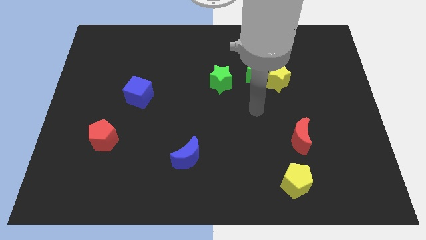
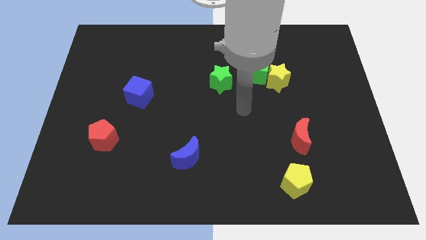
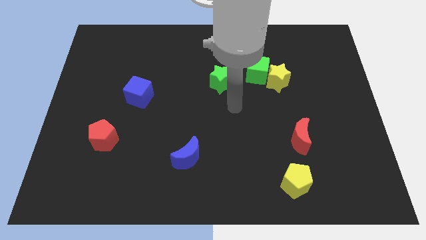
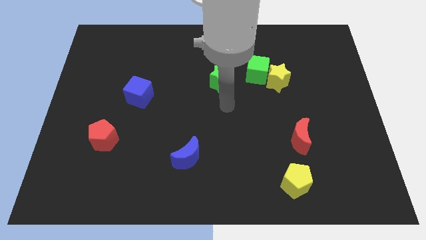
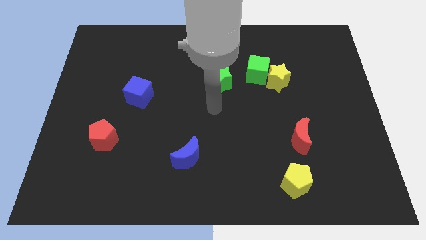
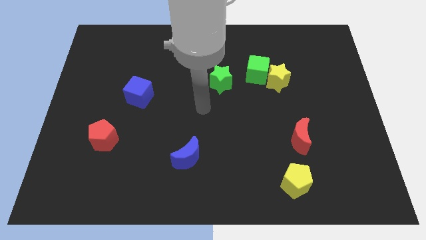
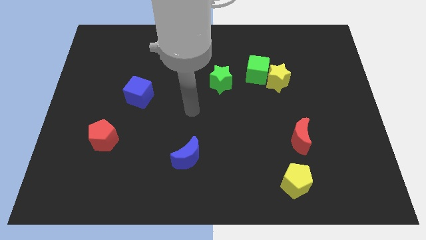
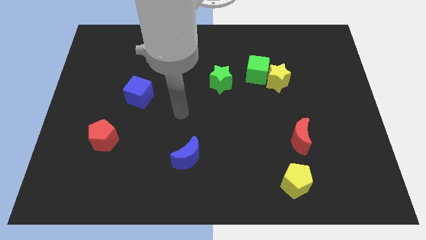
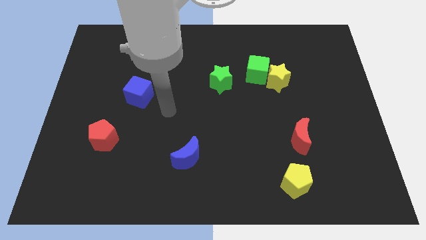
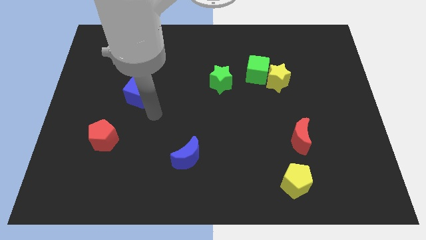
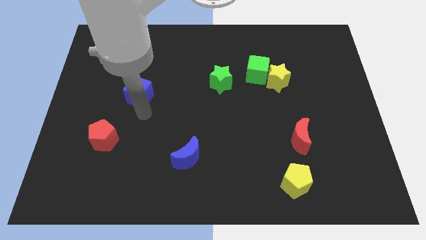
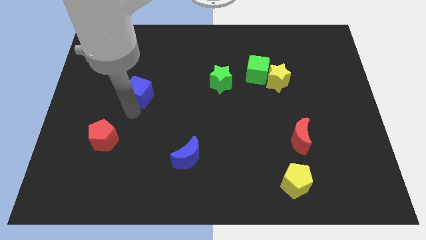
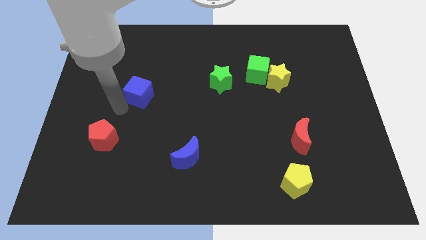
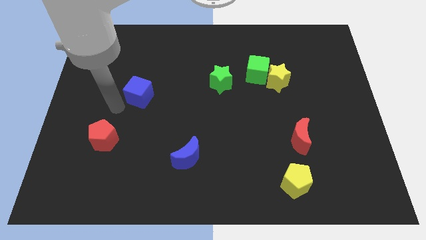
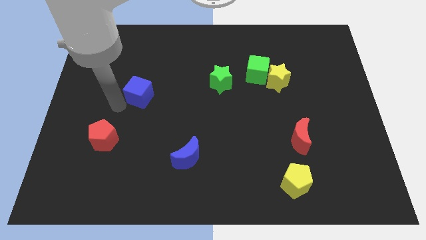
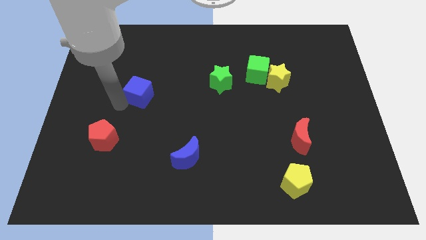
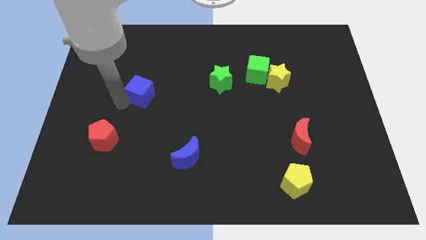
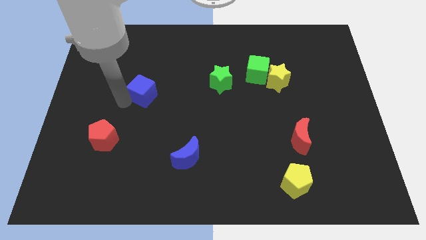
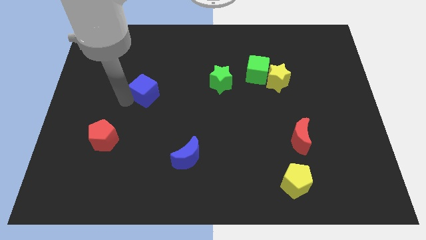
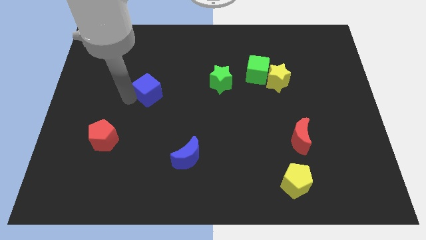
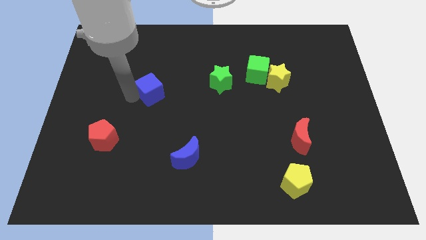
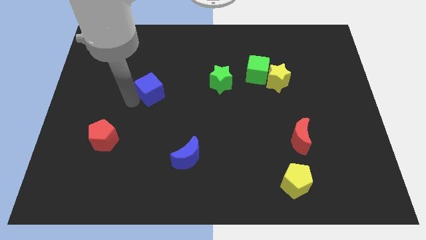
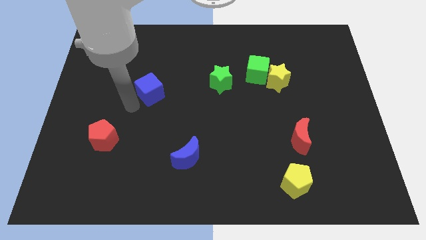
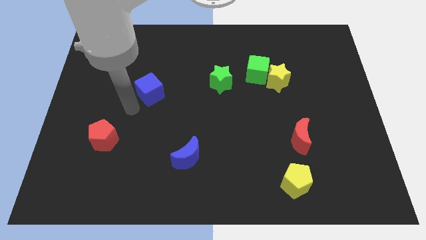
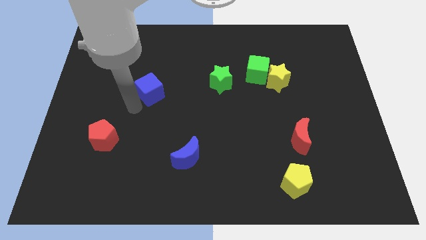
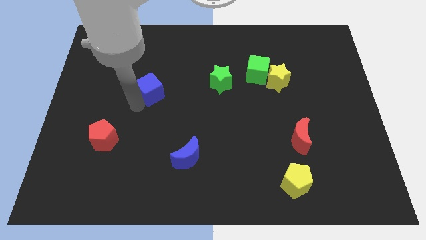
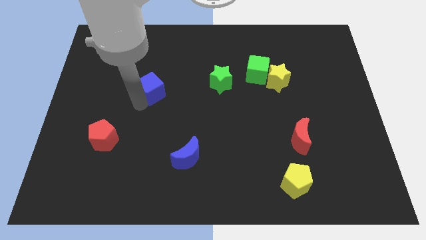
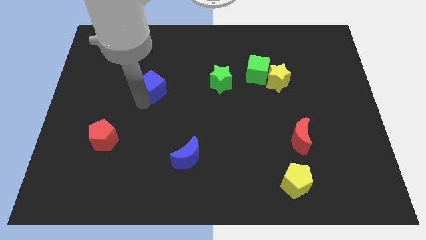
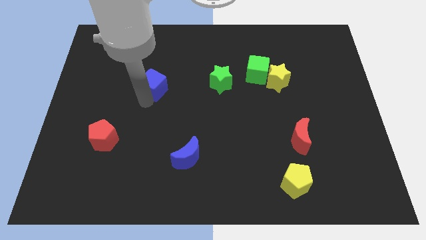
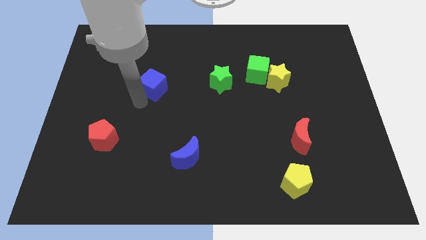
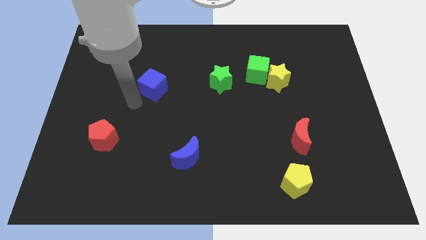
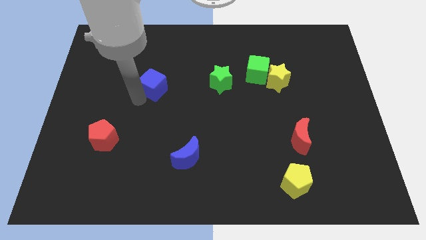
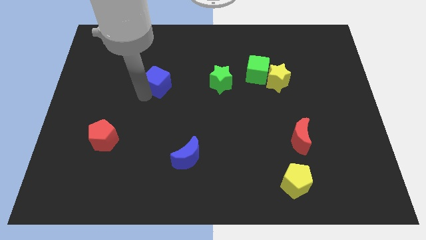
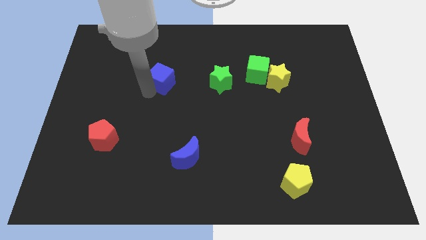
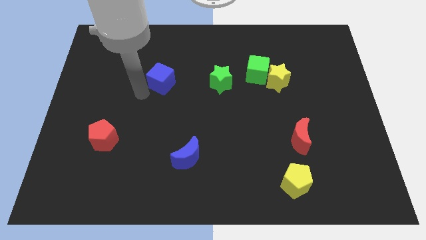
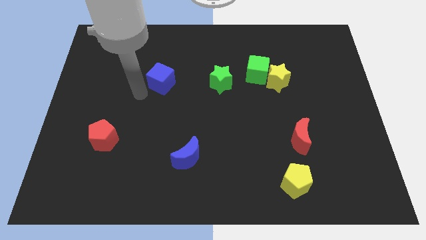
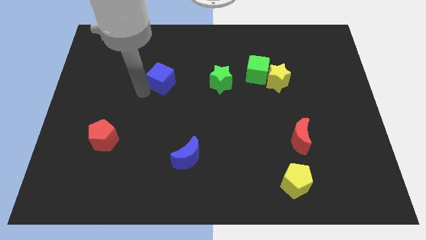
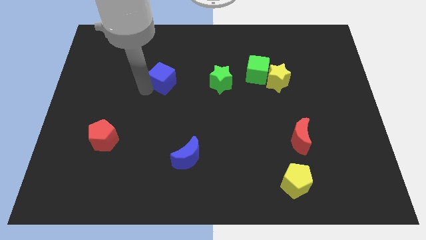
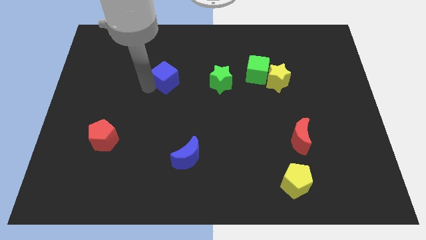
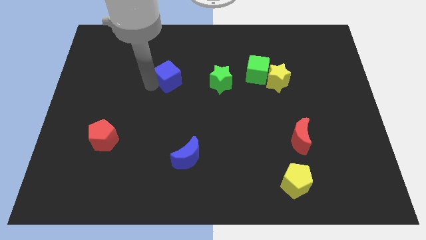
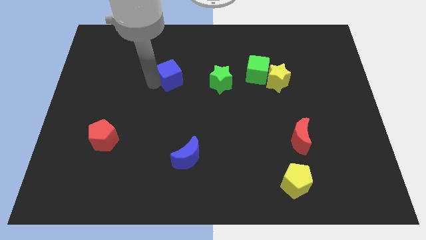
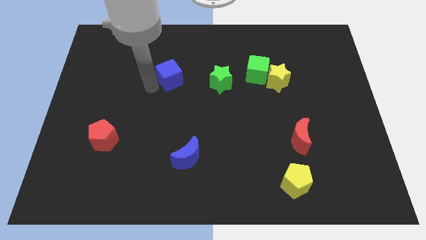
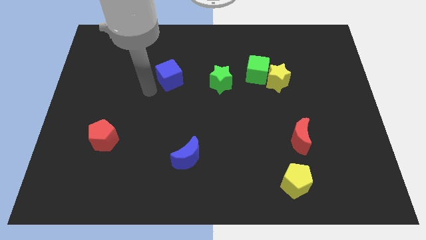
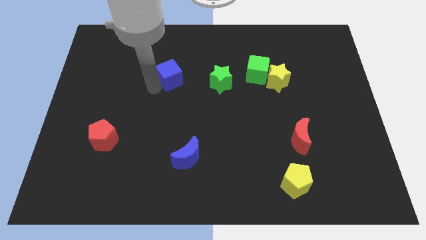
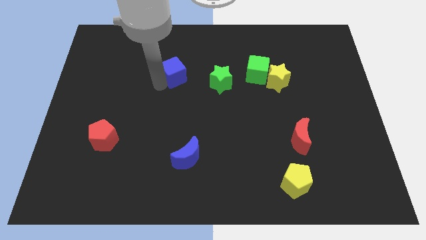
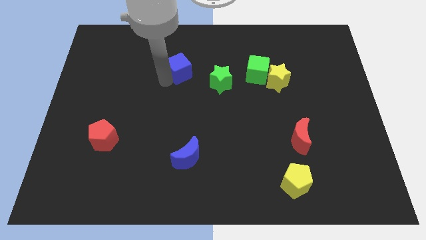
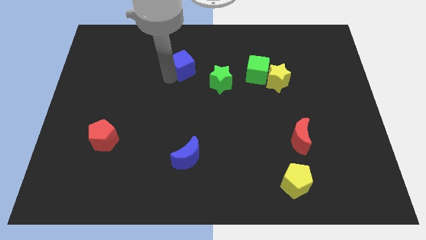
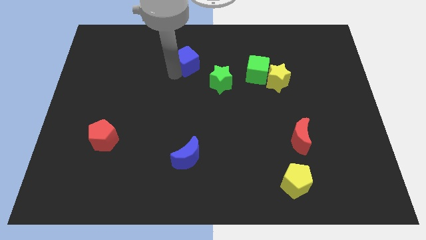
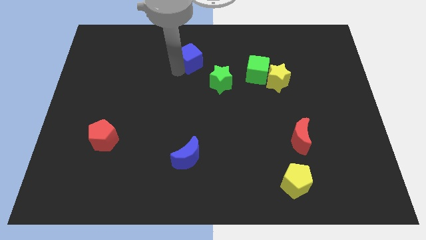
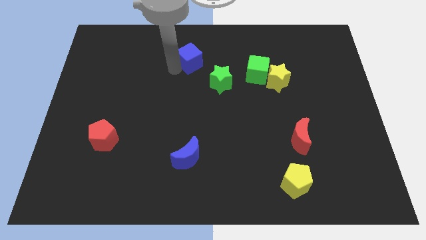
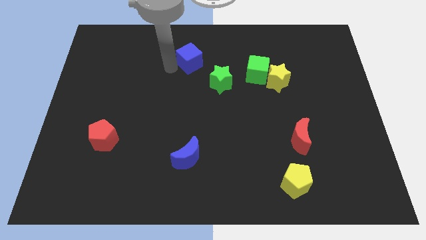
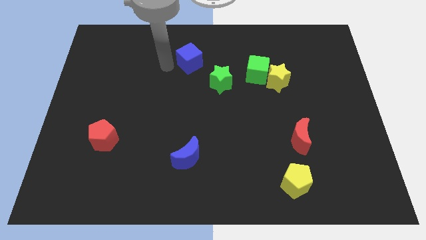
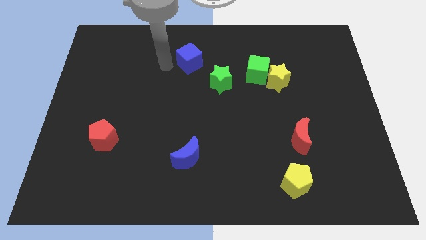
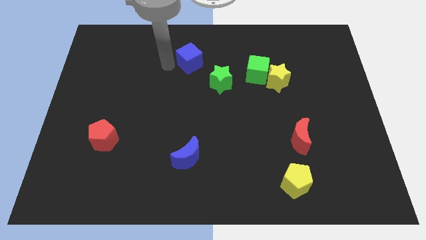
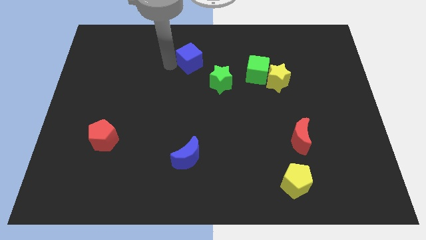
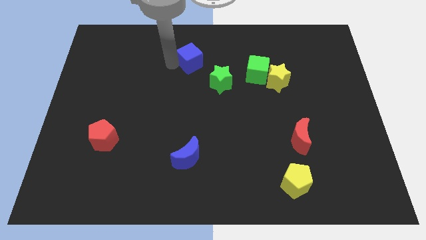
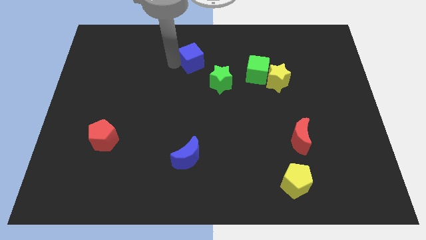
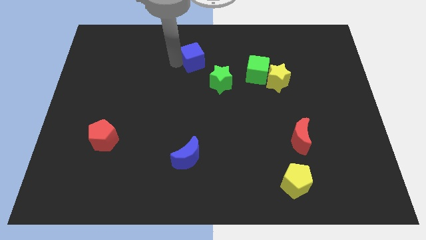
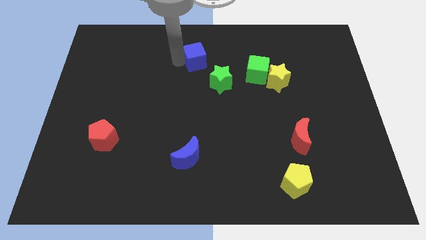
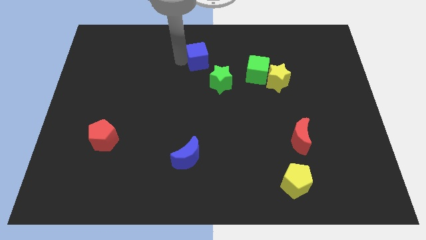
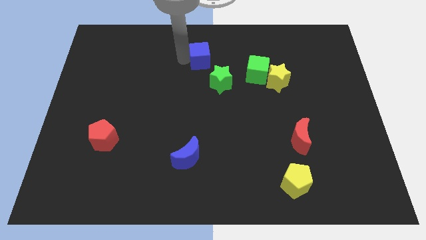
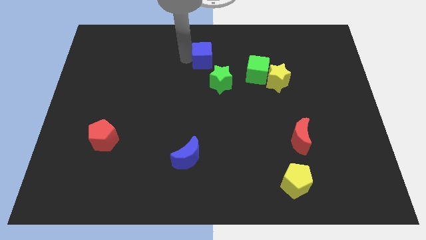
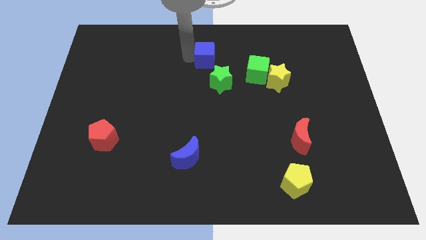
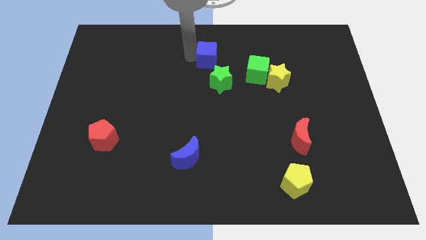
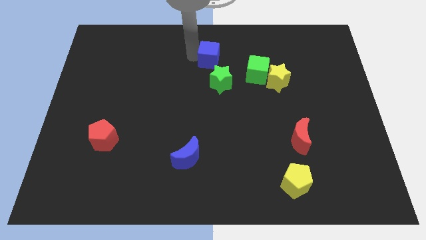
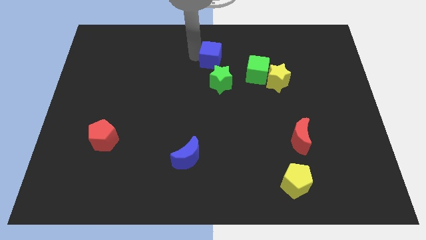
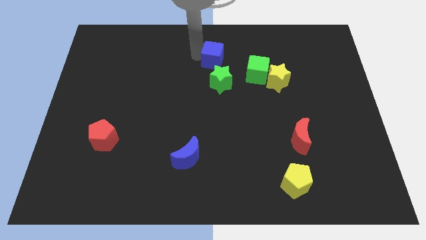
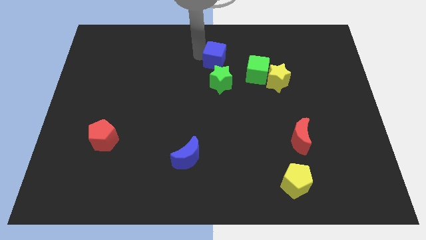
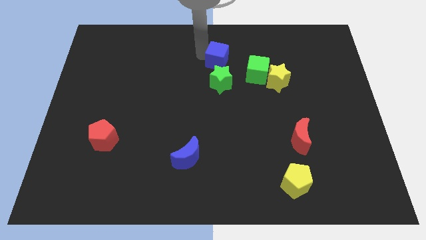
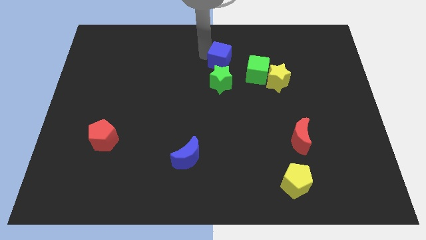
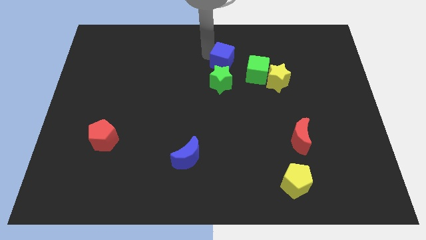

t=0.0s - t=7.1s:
move the blue cube to the top right side of the green star

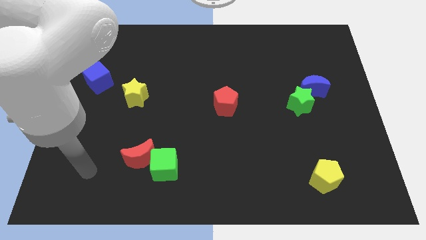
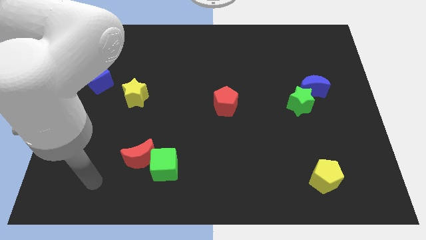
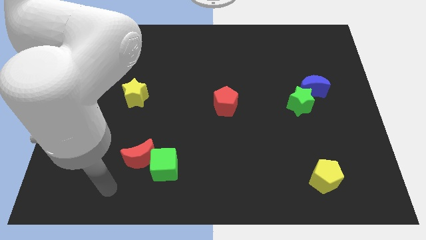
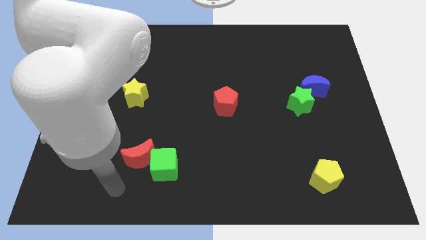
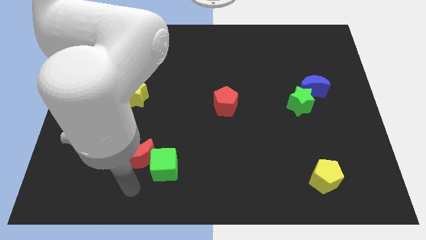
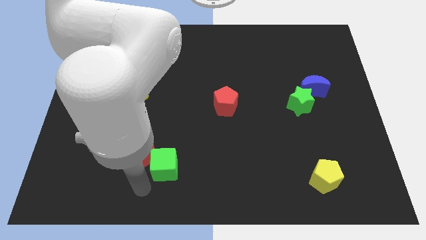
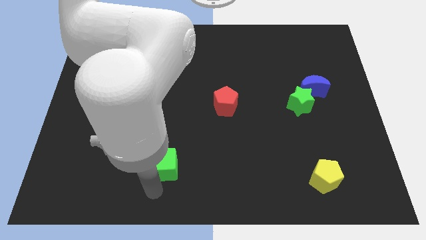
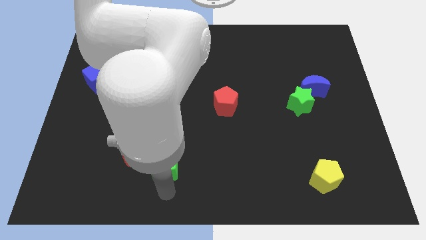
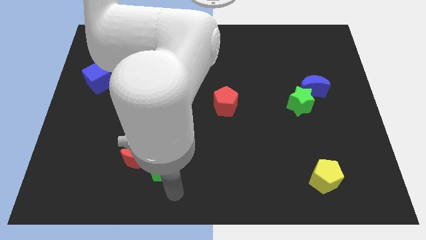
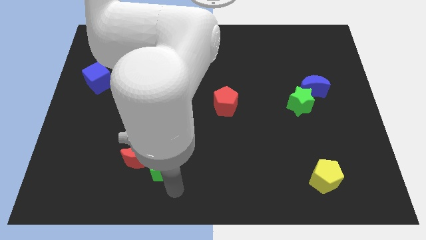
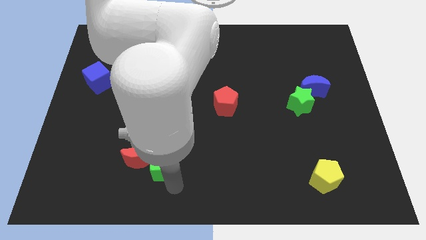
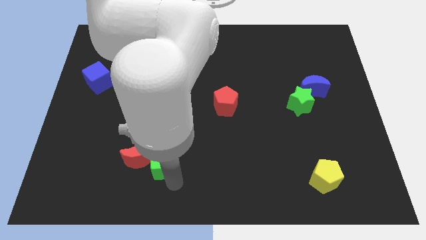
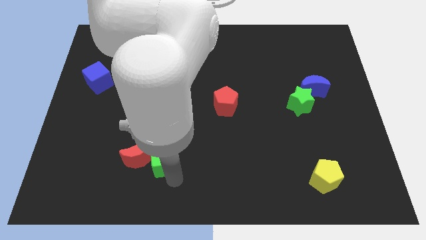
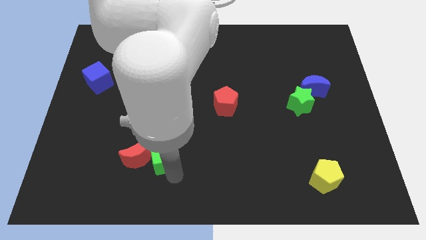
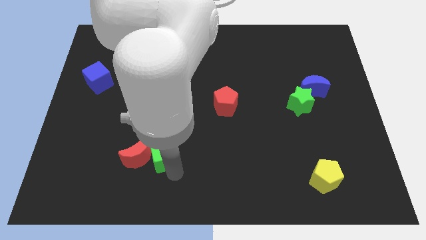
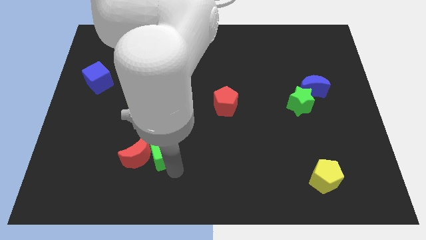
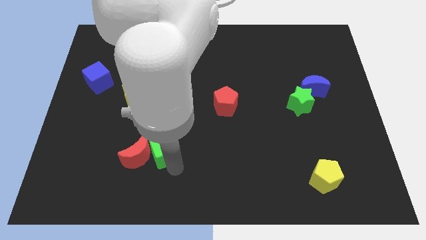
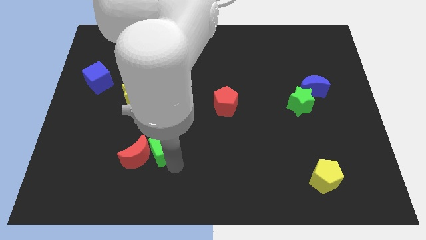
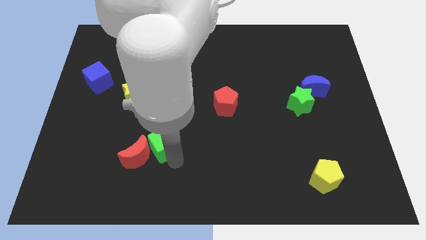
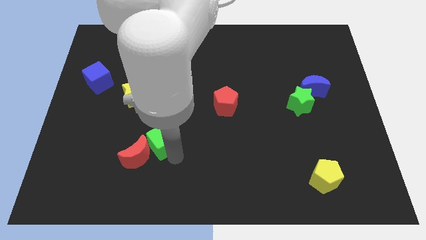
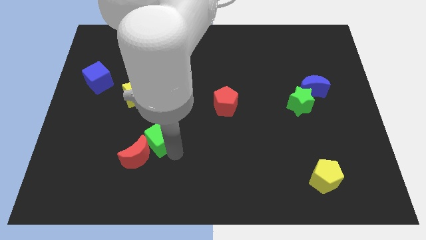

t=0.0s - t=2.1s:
move the green cube to the top side of the red moon
